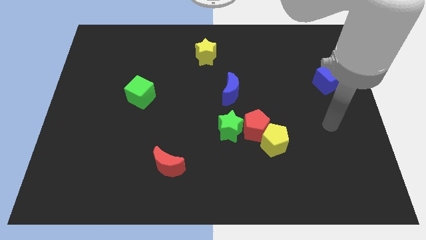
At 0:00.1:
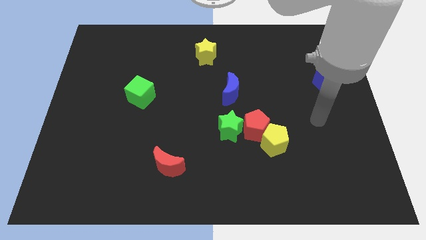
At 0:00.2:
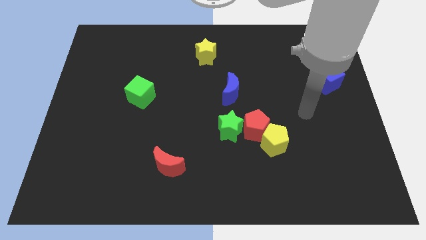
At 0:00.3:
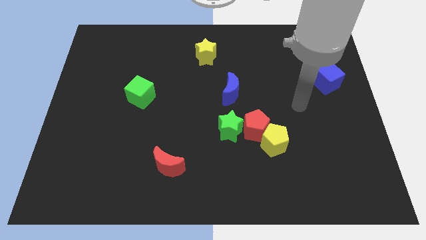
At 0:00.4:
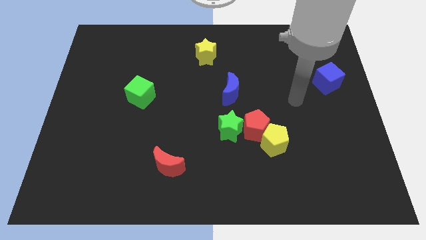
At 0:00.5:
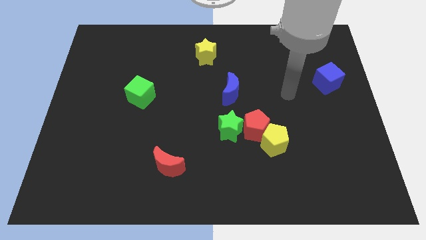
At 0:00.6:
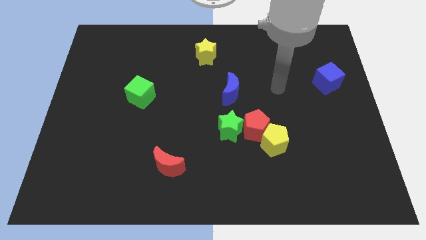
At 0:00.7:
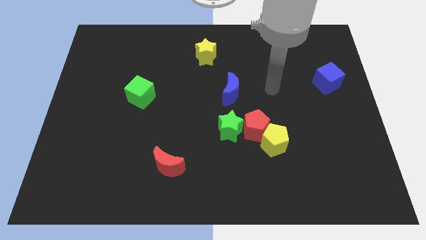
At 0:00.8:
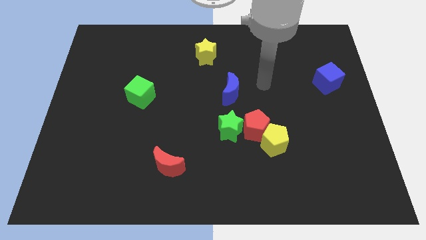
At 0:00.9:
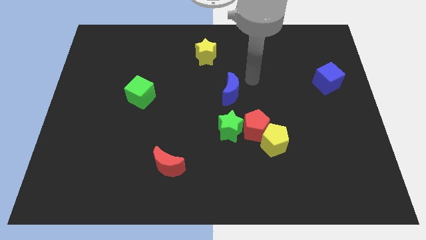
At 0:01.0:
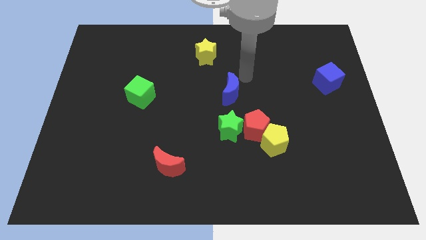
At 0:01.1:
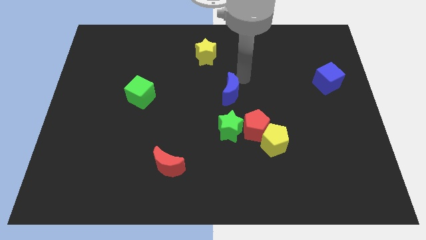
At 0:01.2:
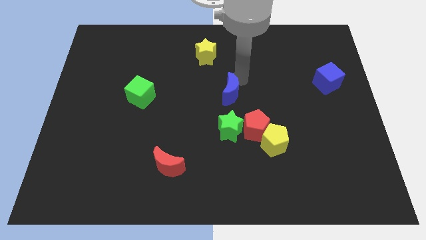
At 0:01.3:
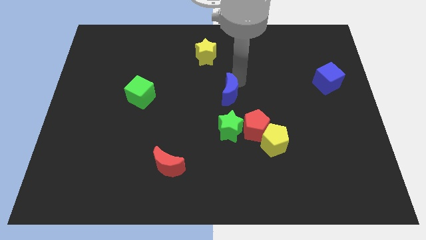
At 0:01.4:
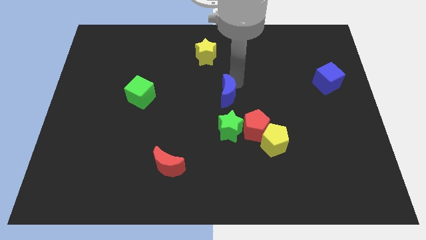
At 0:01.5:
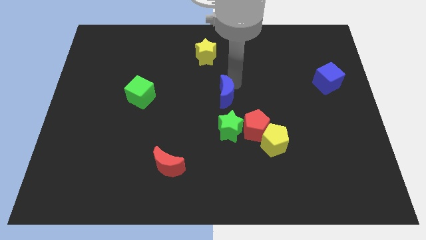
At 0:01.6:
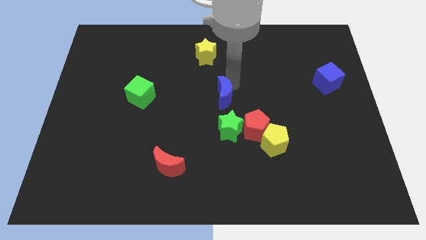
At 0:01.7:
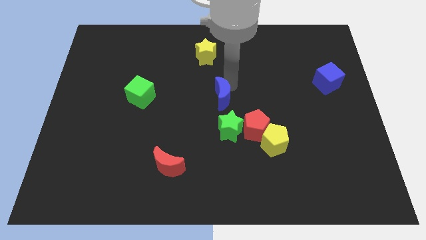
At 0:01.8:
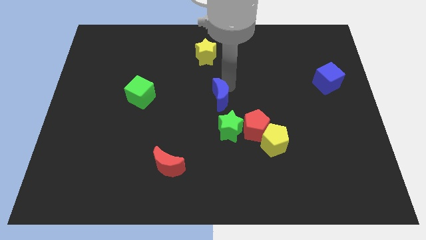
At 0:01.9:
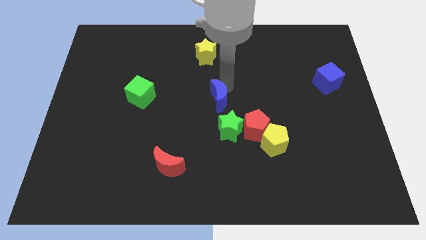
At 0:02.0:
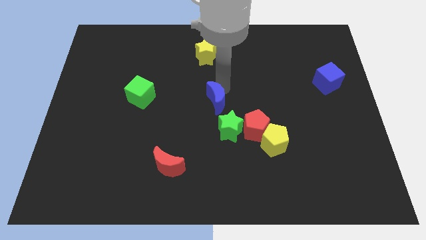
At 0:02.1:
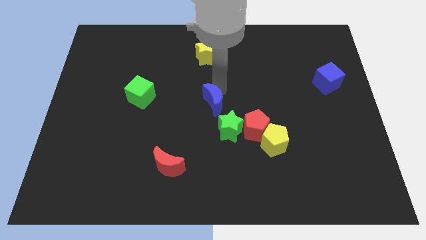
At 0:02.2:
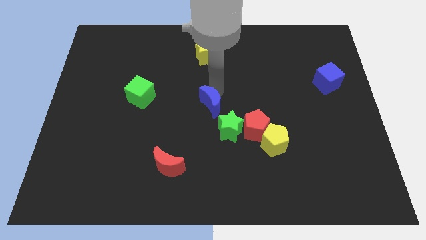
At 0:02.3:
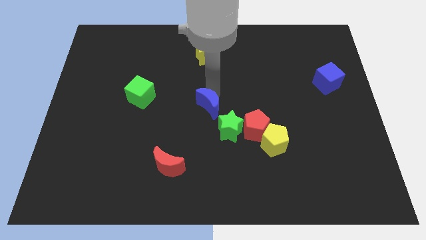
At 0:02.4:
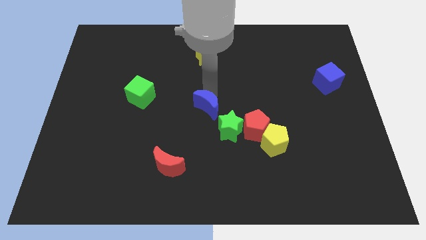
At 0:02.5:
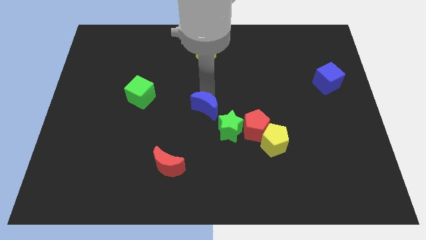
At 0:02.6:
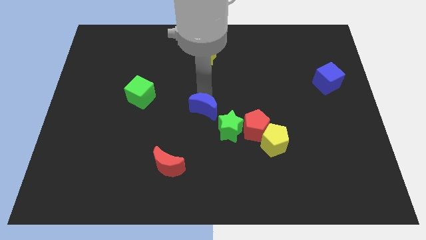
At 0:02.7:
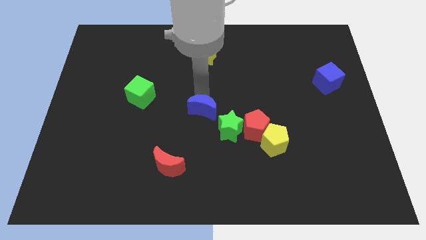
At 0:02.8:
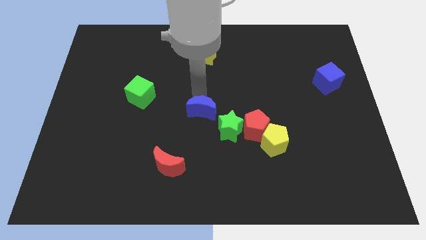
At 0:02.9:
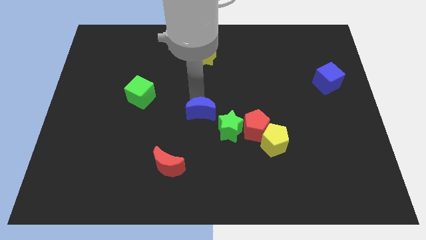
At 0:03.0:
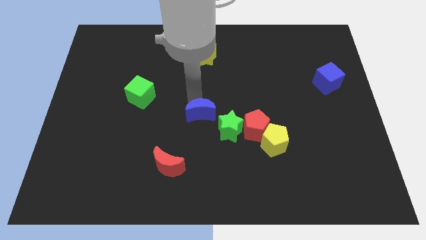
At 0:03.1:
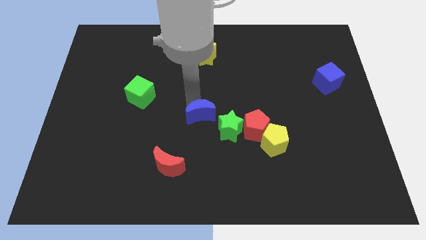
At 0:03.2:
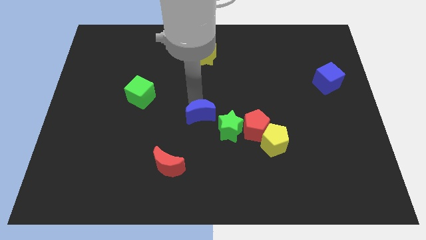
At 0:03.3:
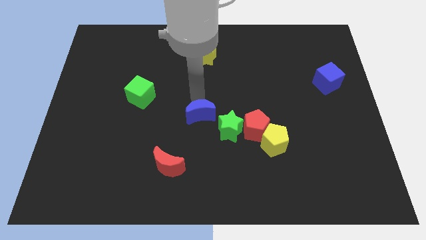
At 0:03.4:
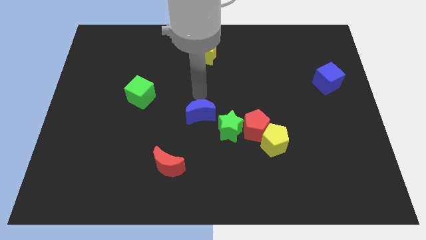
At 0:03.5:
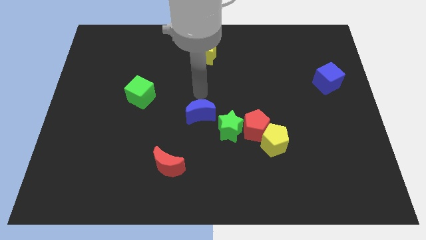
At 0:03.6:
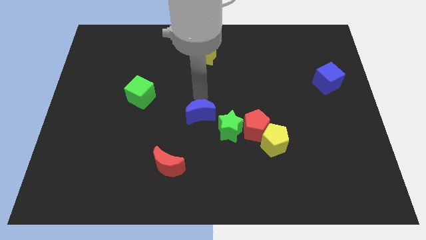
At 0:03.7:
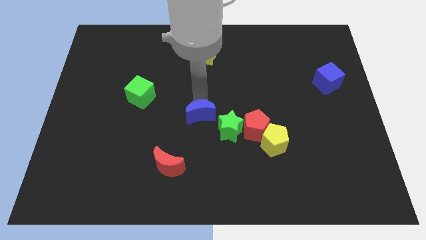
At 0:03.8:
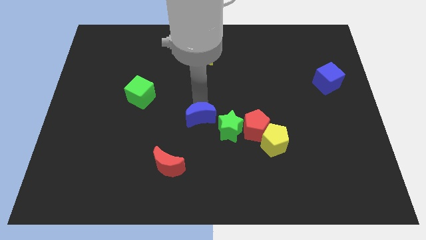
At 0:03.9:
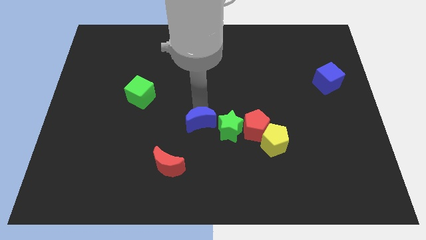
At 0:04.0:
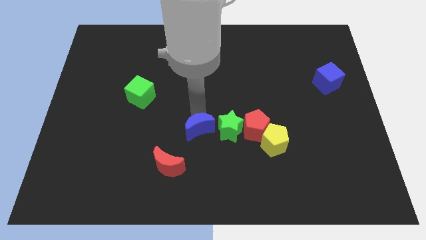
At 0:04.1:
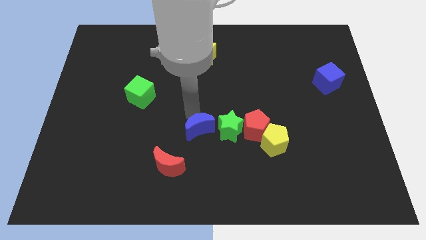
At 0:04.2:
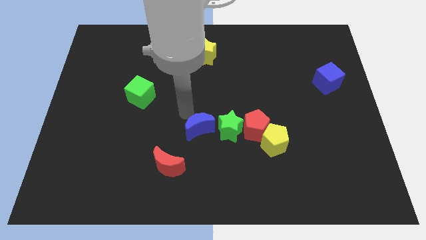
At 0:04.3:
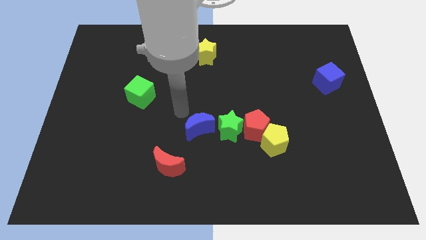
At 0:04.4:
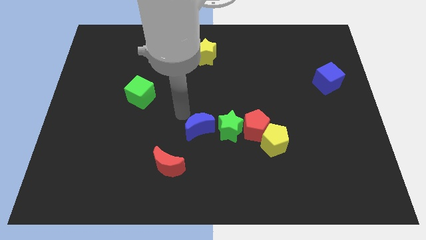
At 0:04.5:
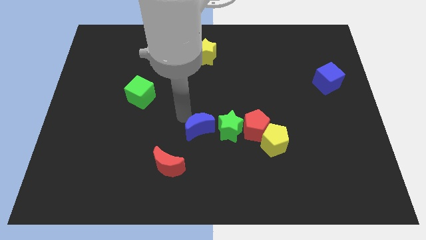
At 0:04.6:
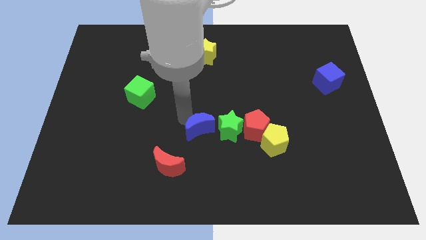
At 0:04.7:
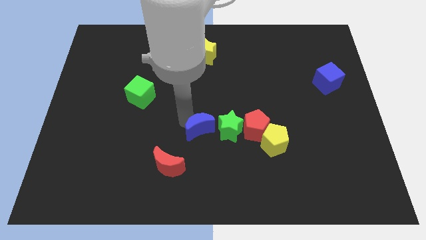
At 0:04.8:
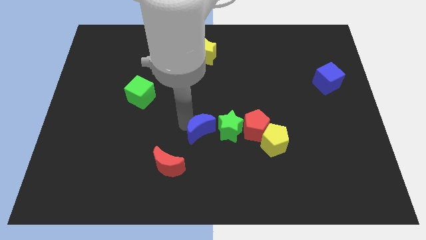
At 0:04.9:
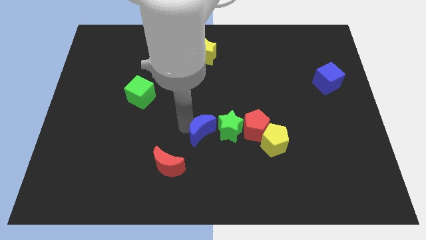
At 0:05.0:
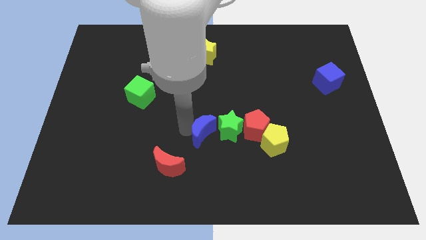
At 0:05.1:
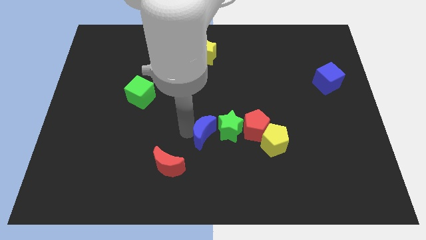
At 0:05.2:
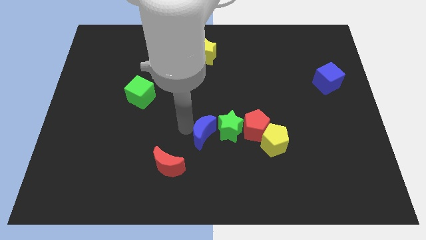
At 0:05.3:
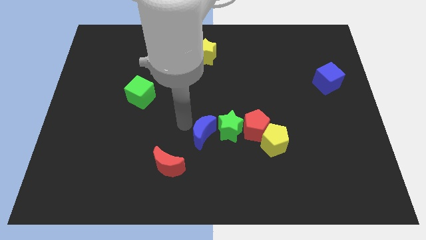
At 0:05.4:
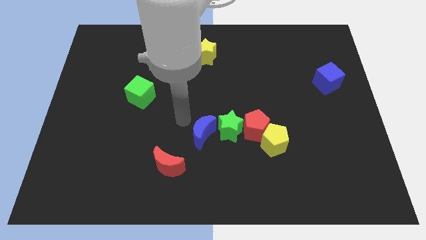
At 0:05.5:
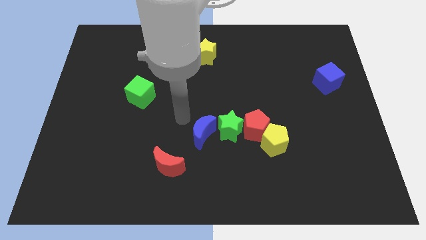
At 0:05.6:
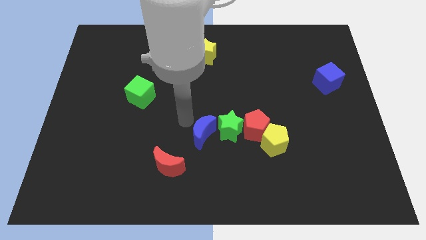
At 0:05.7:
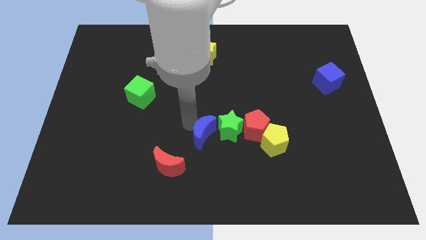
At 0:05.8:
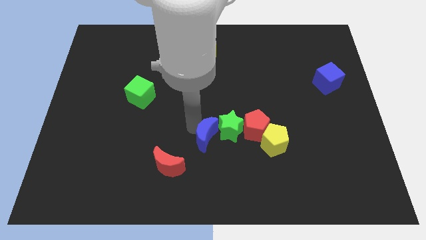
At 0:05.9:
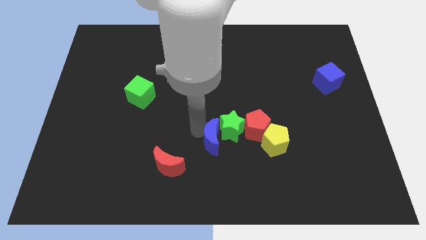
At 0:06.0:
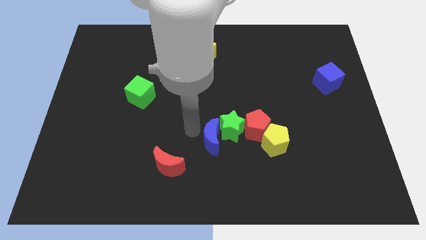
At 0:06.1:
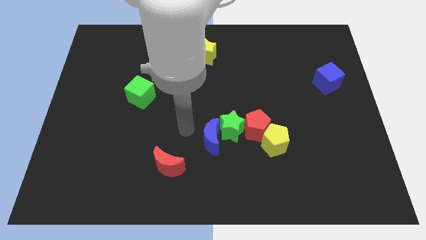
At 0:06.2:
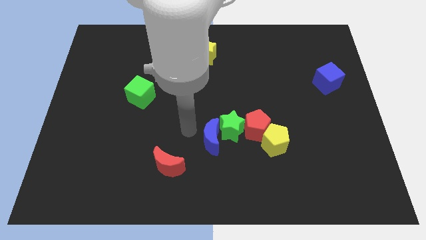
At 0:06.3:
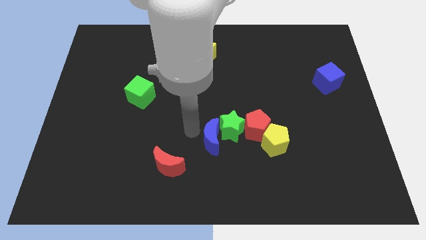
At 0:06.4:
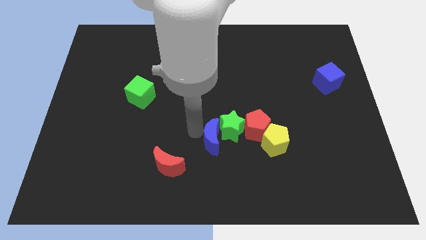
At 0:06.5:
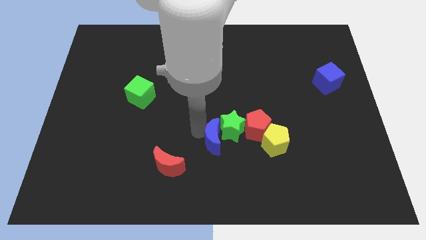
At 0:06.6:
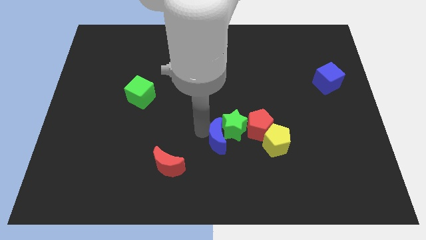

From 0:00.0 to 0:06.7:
put the blue moon to the bottom left side of the red pentagon

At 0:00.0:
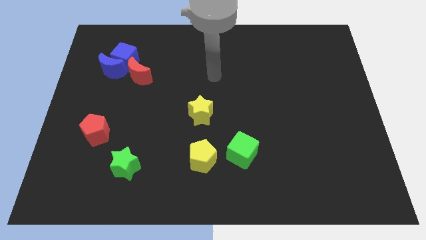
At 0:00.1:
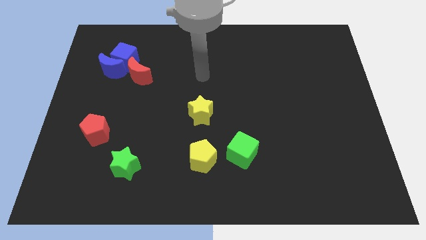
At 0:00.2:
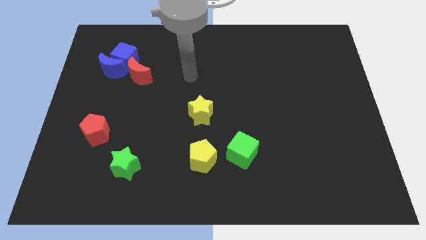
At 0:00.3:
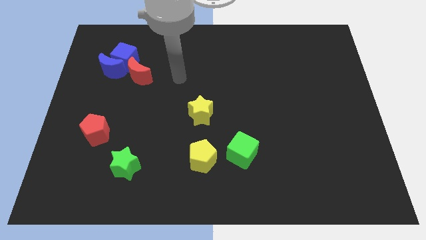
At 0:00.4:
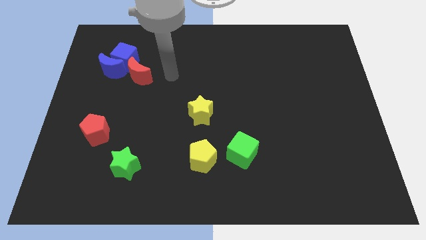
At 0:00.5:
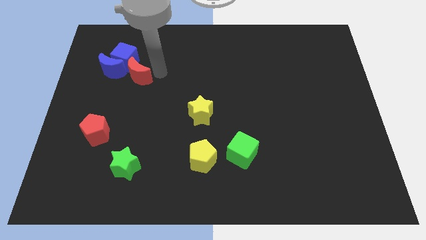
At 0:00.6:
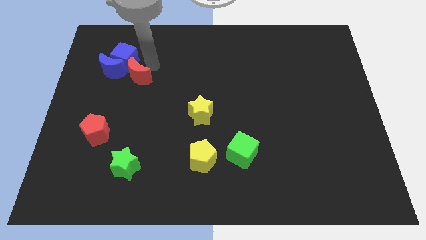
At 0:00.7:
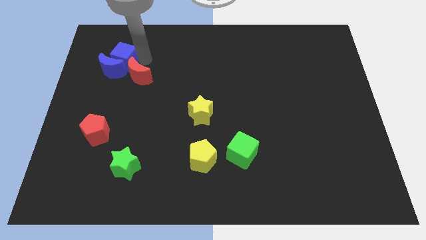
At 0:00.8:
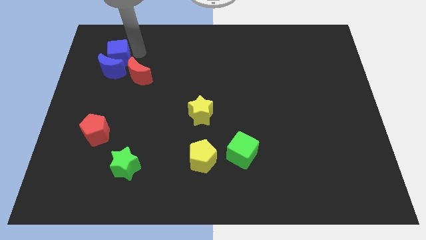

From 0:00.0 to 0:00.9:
move the blue moon to the bottom right side of the blue cube

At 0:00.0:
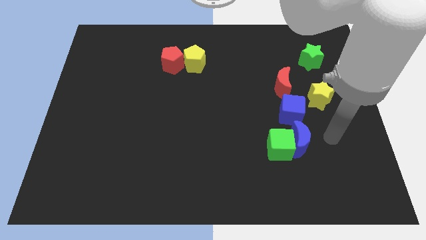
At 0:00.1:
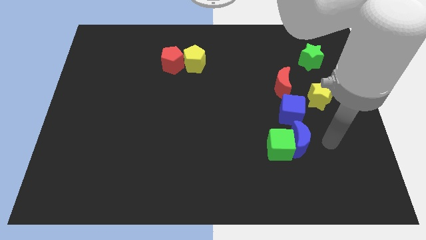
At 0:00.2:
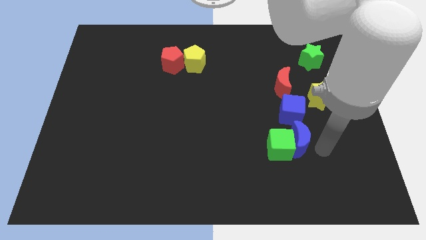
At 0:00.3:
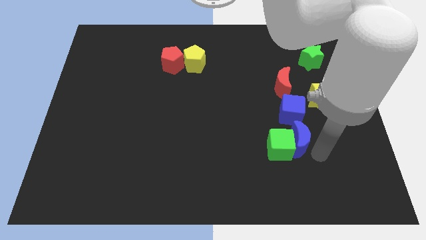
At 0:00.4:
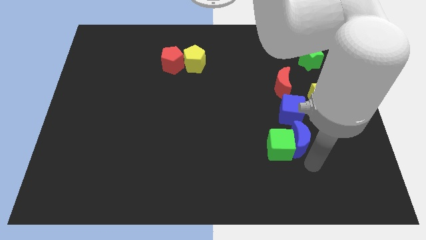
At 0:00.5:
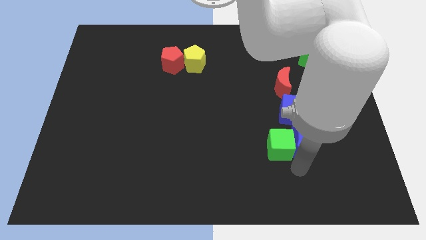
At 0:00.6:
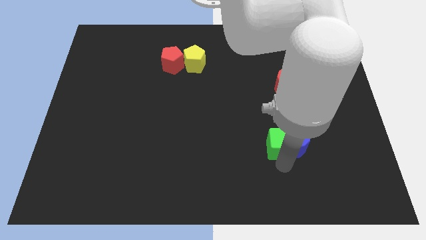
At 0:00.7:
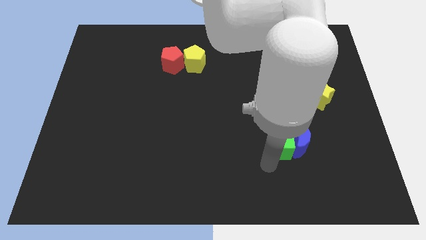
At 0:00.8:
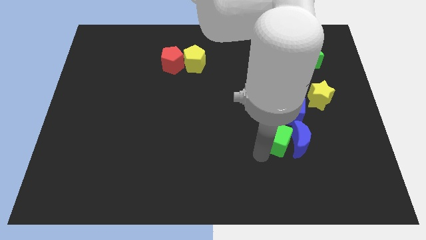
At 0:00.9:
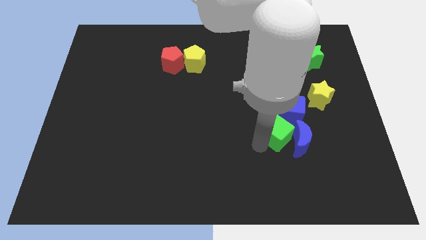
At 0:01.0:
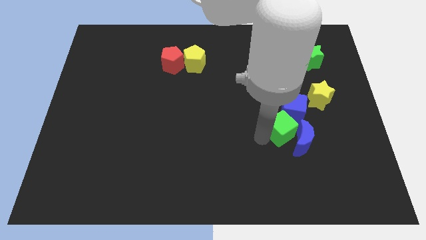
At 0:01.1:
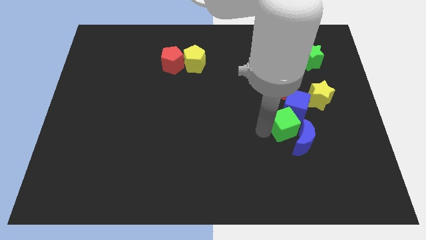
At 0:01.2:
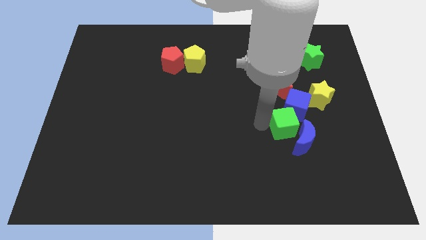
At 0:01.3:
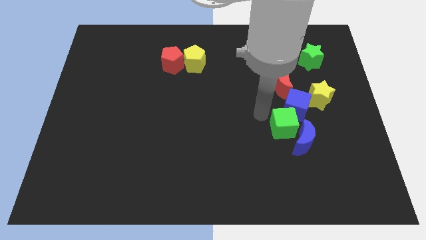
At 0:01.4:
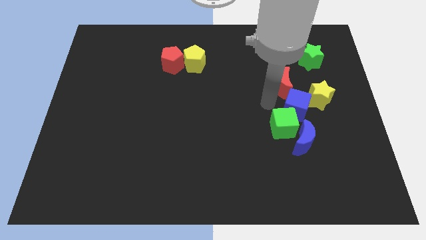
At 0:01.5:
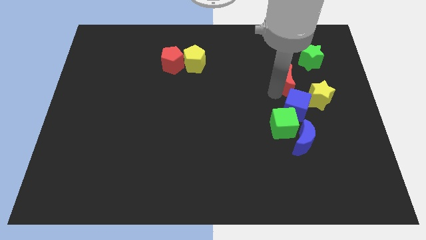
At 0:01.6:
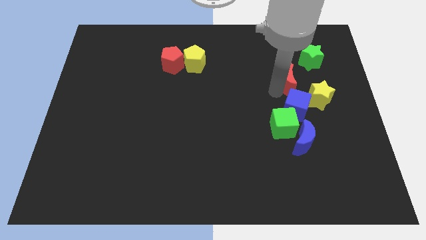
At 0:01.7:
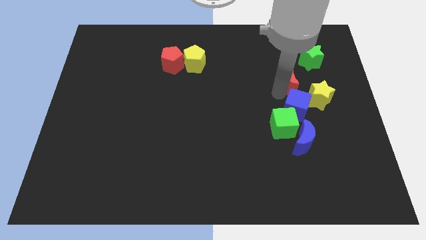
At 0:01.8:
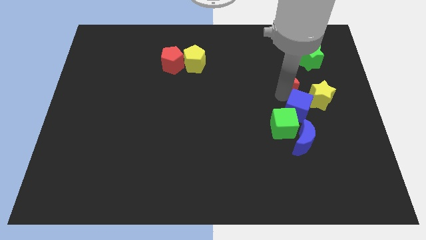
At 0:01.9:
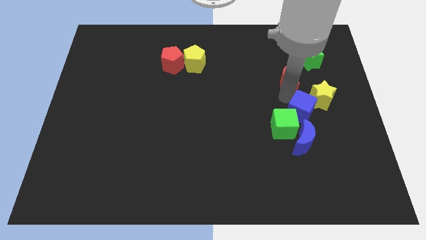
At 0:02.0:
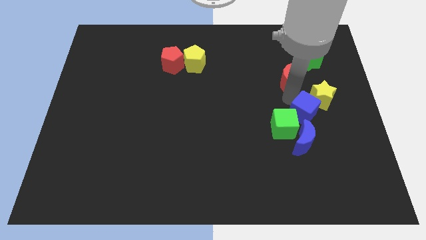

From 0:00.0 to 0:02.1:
put the blue cube below the yellow star
